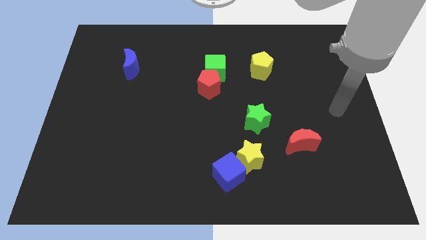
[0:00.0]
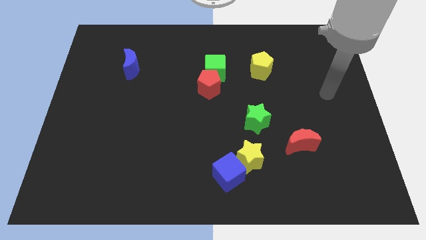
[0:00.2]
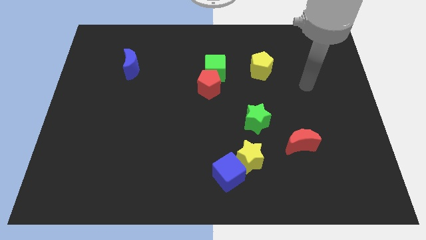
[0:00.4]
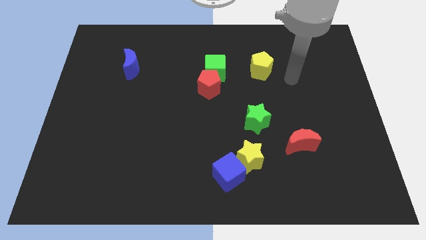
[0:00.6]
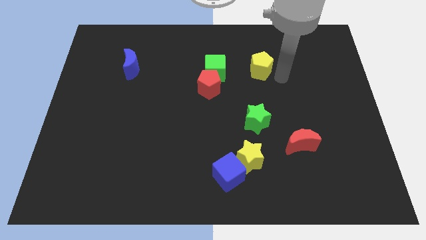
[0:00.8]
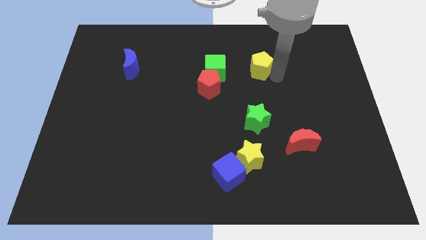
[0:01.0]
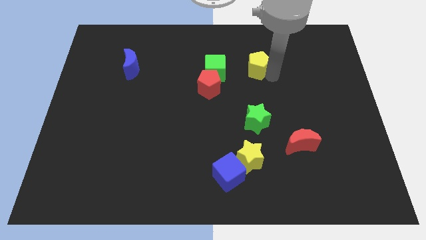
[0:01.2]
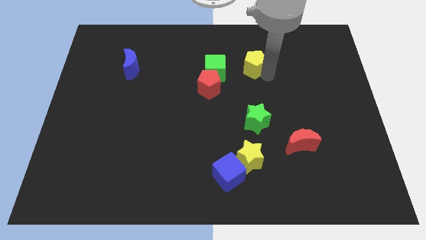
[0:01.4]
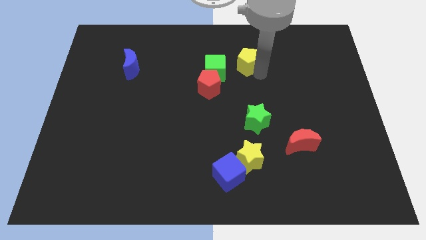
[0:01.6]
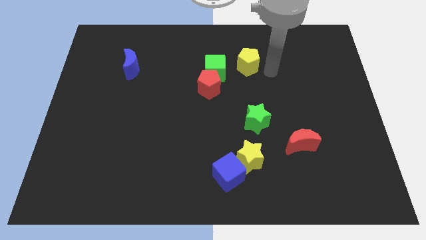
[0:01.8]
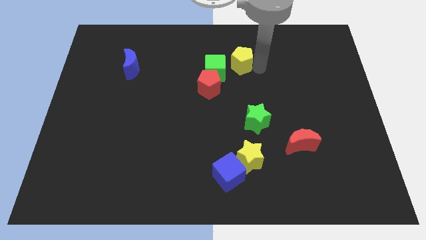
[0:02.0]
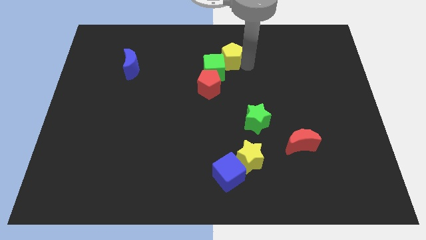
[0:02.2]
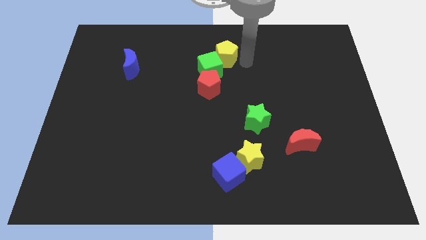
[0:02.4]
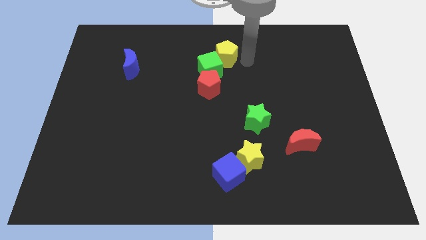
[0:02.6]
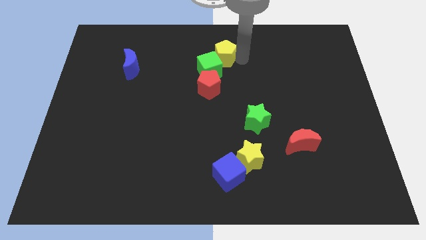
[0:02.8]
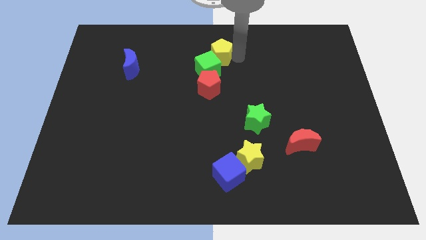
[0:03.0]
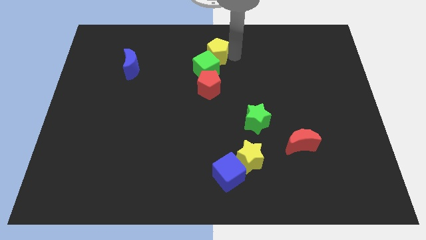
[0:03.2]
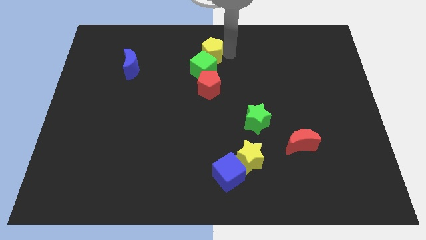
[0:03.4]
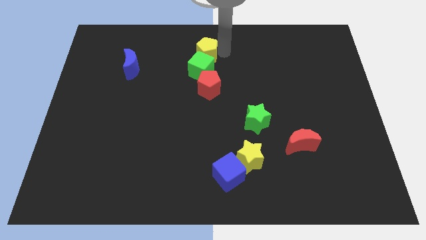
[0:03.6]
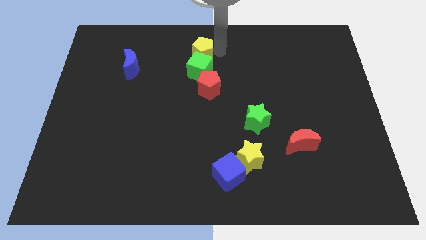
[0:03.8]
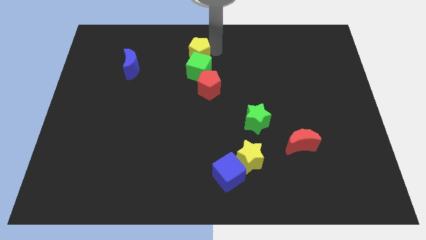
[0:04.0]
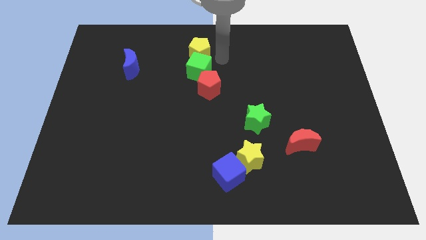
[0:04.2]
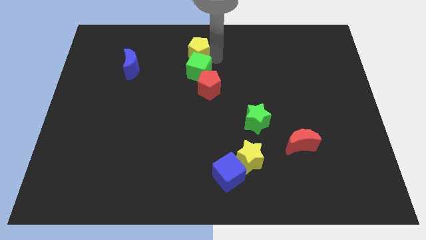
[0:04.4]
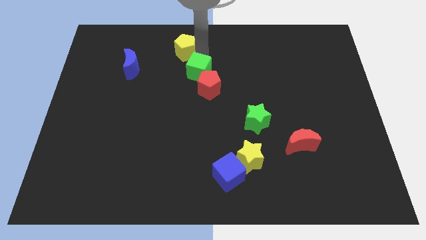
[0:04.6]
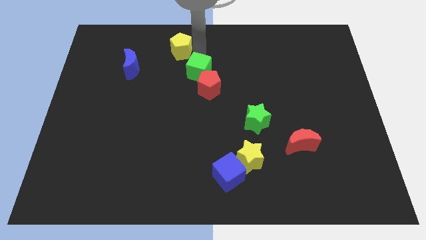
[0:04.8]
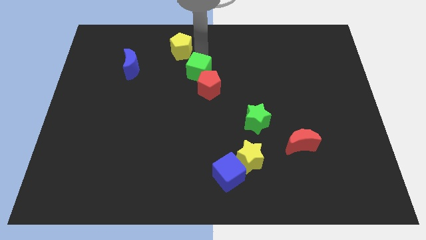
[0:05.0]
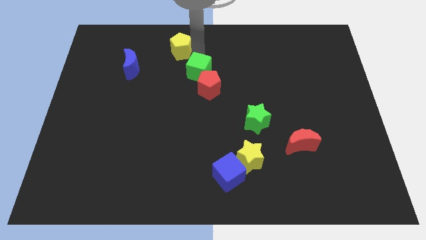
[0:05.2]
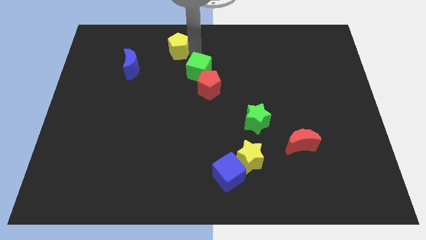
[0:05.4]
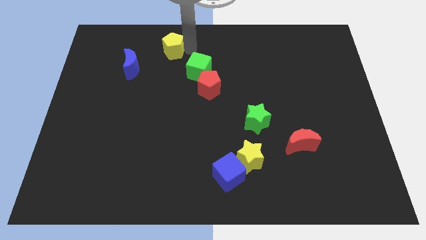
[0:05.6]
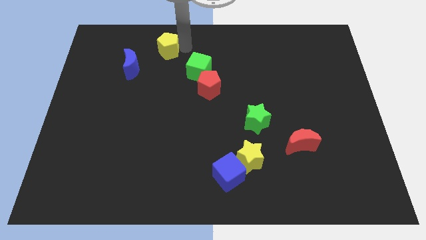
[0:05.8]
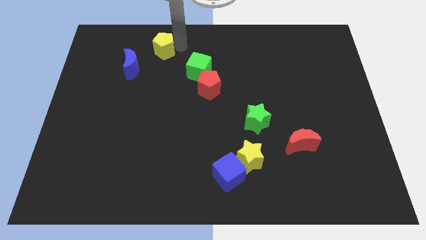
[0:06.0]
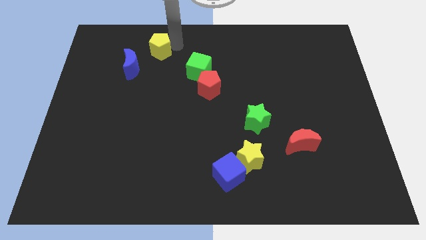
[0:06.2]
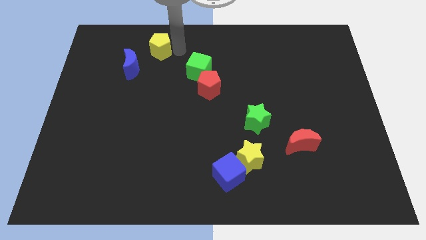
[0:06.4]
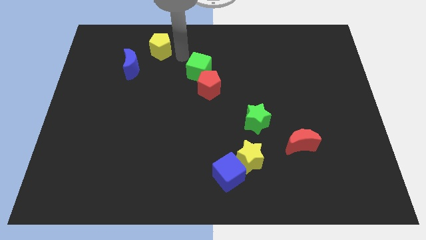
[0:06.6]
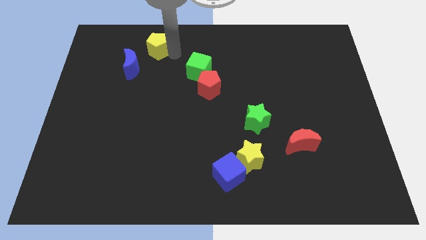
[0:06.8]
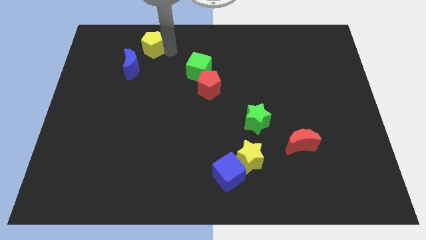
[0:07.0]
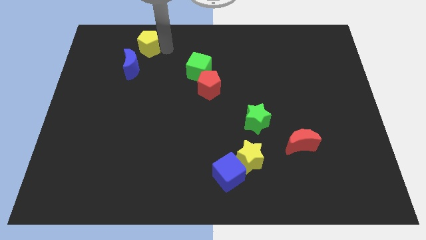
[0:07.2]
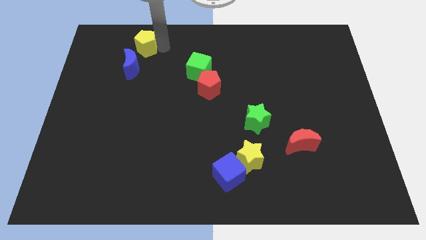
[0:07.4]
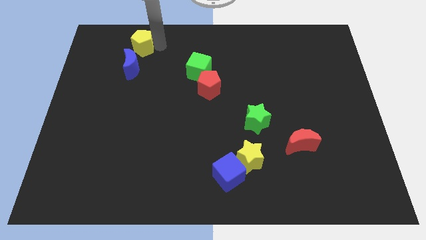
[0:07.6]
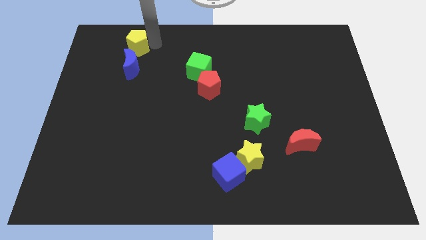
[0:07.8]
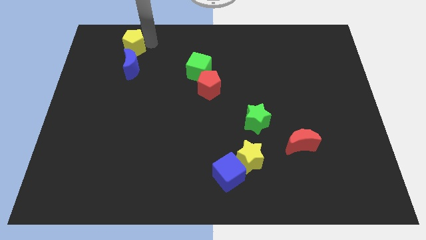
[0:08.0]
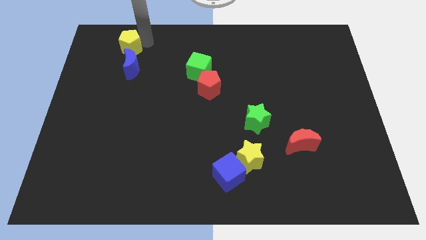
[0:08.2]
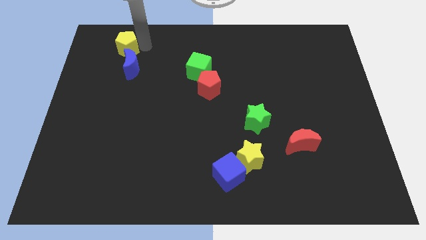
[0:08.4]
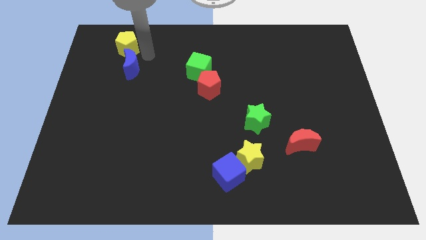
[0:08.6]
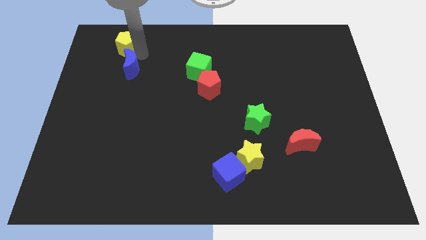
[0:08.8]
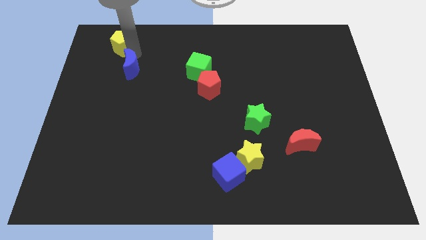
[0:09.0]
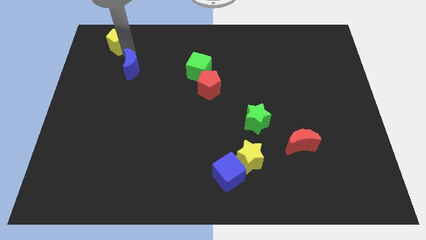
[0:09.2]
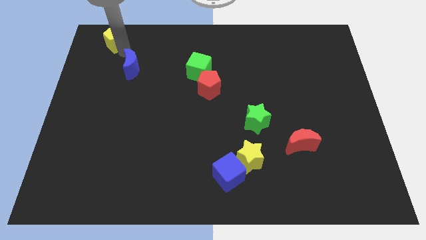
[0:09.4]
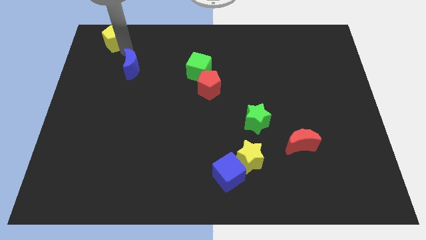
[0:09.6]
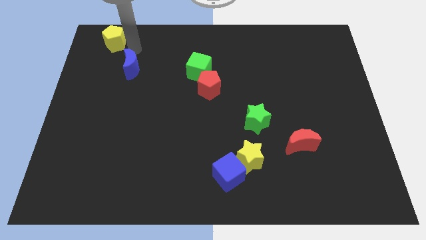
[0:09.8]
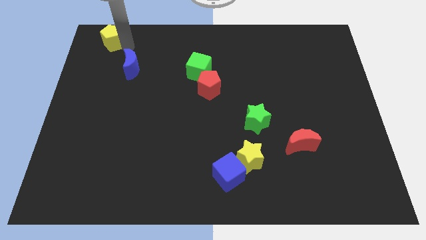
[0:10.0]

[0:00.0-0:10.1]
move the yellow pentagon to the upper left corner

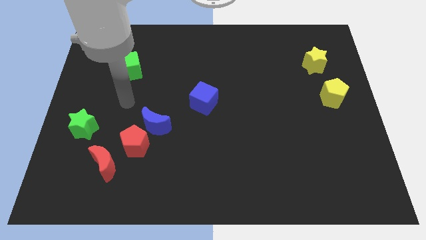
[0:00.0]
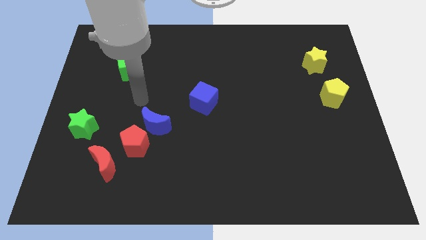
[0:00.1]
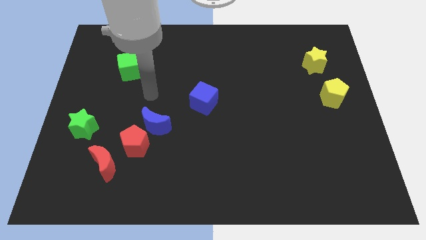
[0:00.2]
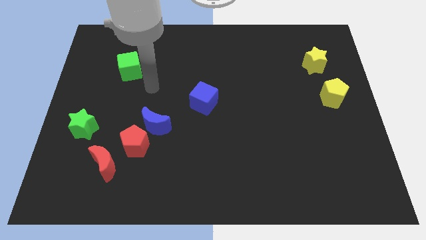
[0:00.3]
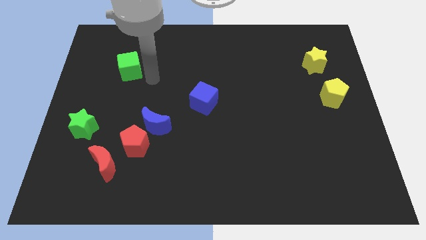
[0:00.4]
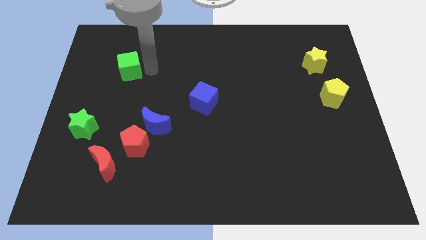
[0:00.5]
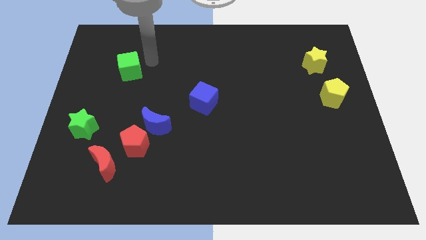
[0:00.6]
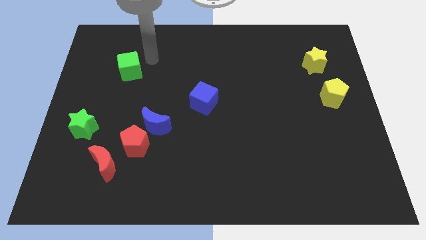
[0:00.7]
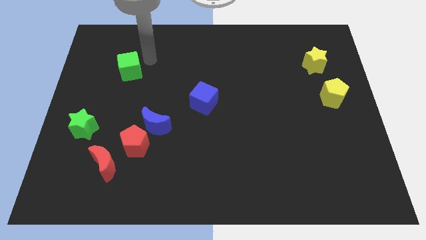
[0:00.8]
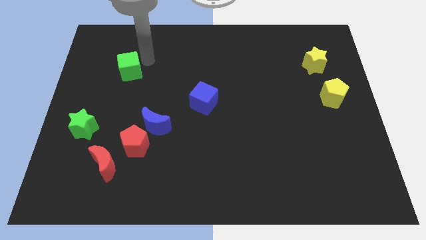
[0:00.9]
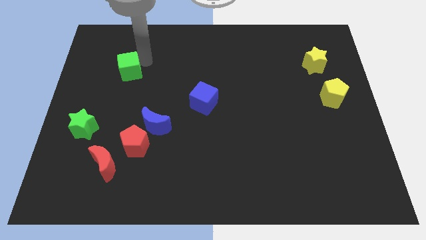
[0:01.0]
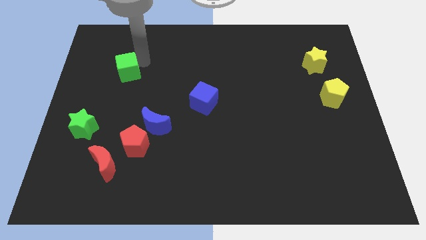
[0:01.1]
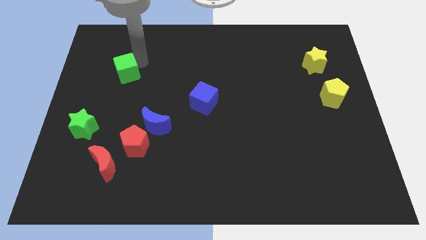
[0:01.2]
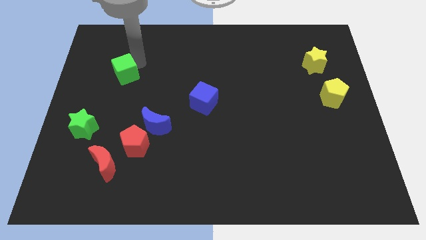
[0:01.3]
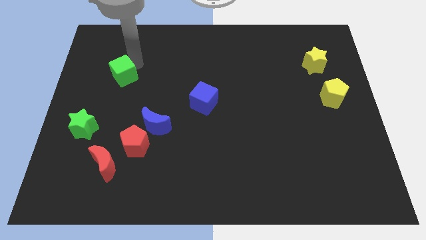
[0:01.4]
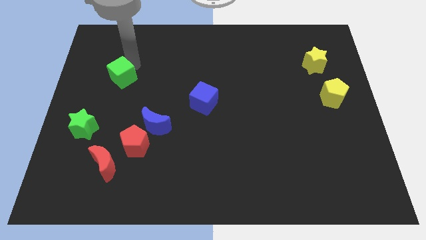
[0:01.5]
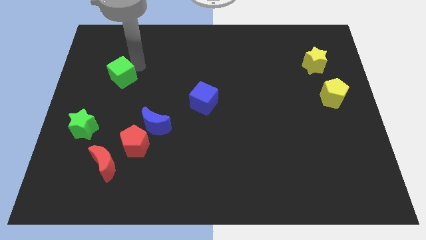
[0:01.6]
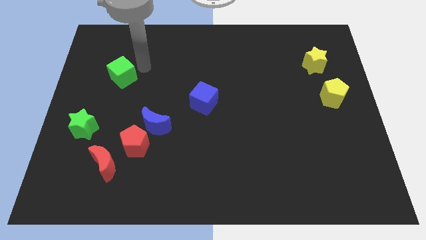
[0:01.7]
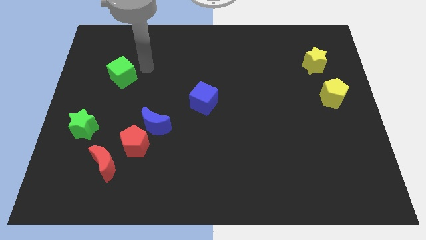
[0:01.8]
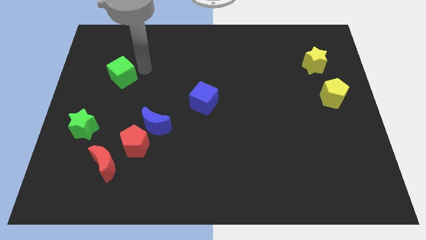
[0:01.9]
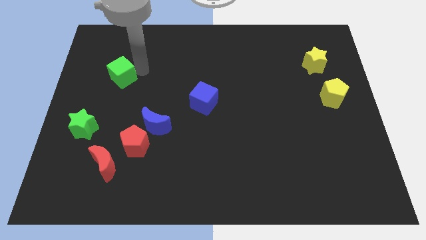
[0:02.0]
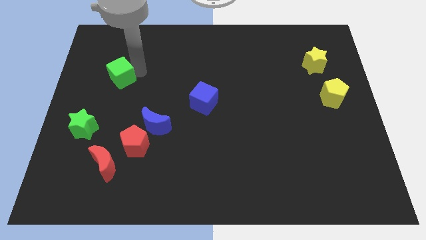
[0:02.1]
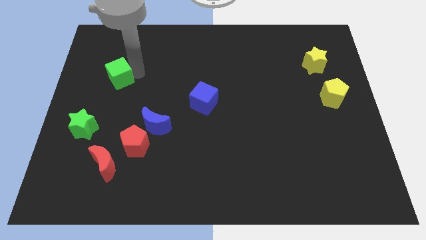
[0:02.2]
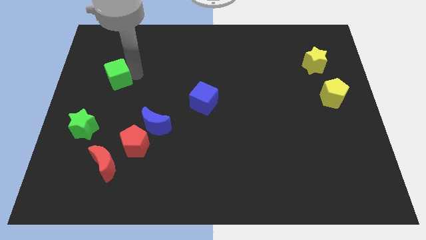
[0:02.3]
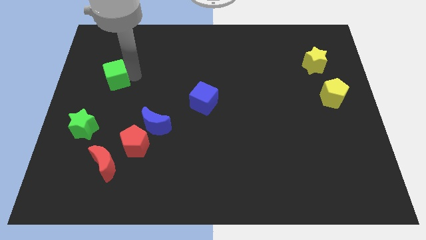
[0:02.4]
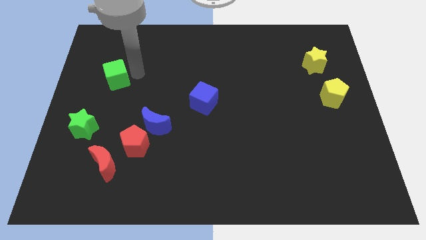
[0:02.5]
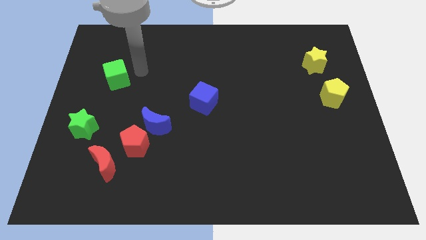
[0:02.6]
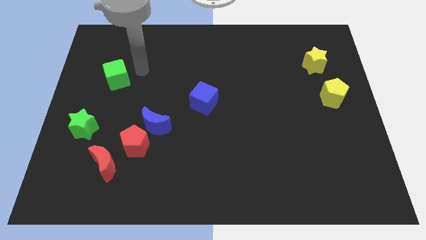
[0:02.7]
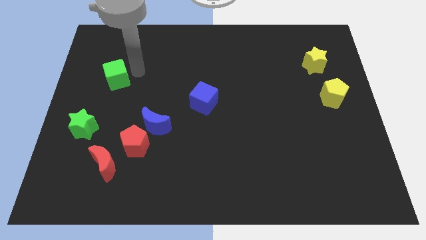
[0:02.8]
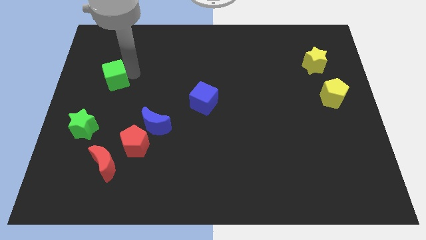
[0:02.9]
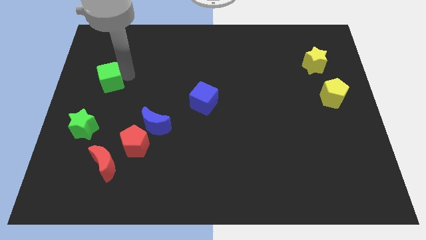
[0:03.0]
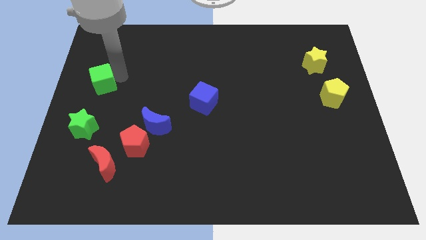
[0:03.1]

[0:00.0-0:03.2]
put the green cube to the left side of the board
